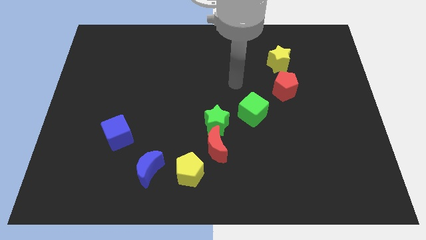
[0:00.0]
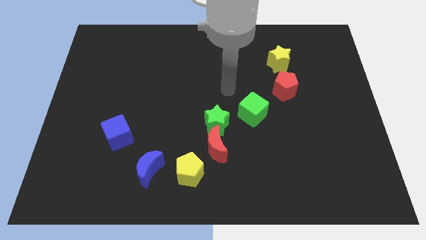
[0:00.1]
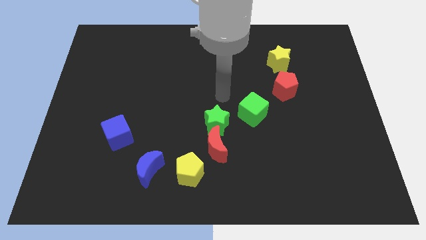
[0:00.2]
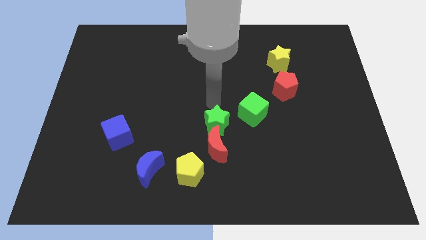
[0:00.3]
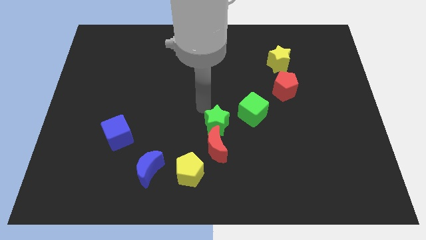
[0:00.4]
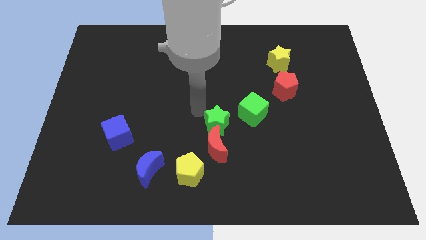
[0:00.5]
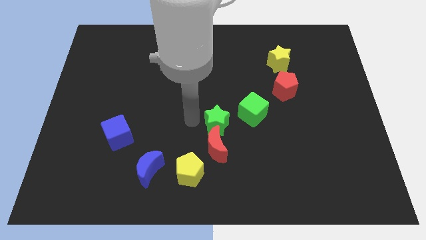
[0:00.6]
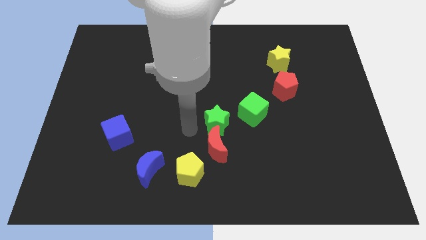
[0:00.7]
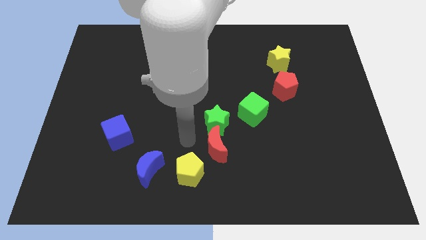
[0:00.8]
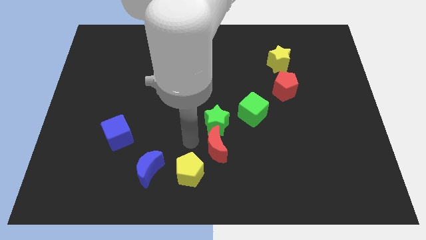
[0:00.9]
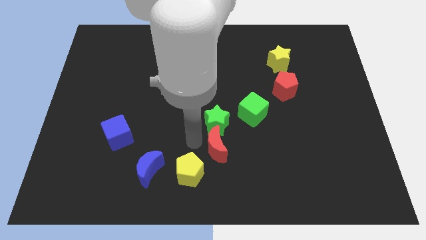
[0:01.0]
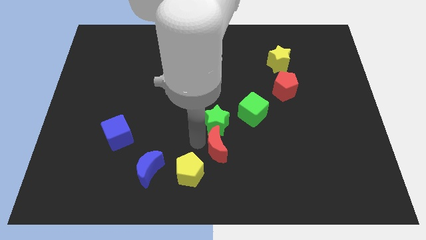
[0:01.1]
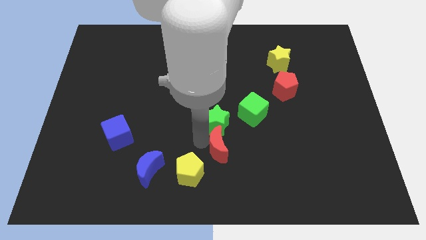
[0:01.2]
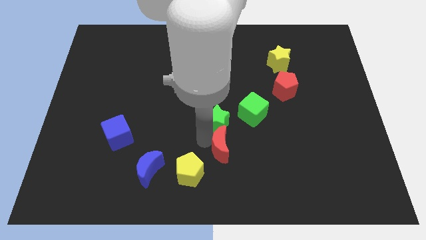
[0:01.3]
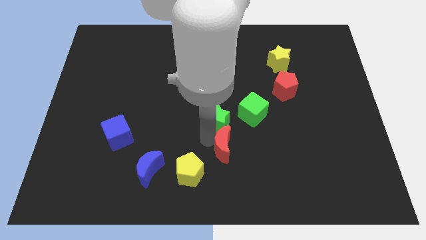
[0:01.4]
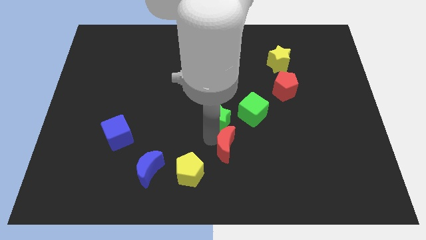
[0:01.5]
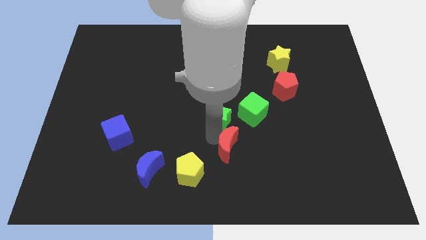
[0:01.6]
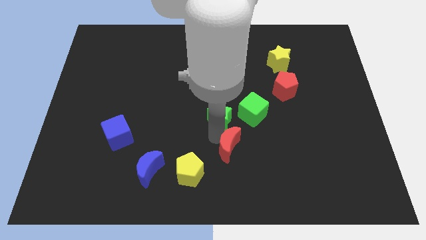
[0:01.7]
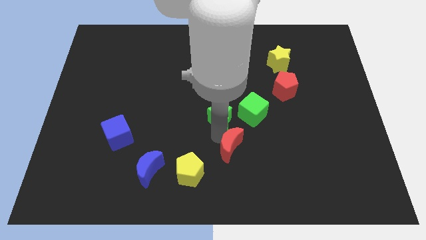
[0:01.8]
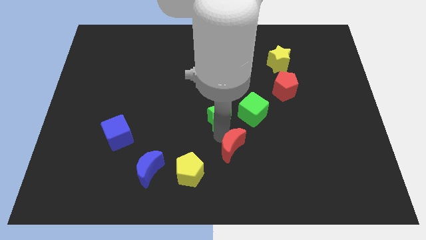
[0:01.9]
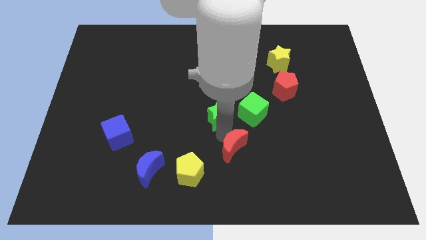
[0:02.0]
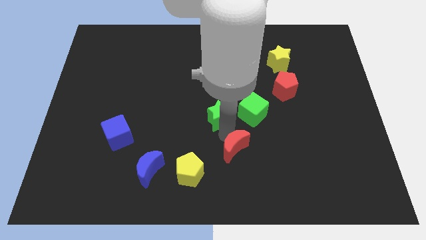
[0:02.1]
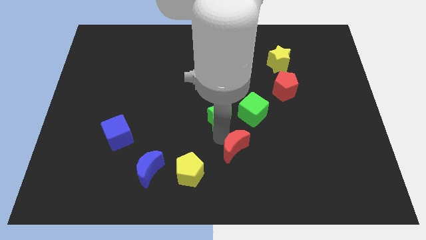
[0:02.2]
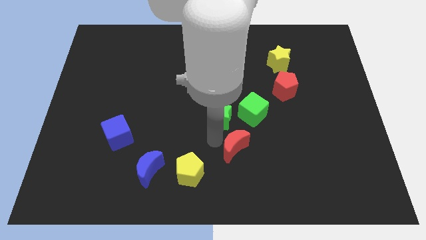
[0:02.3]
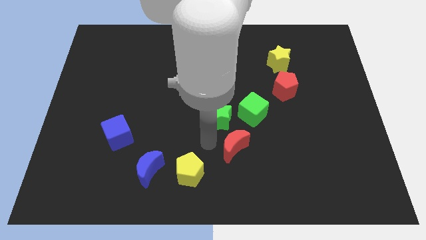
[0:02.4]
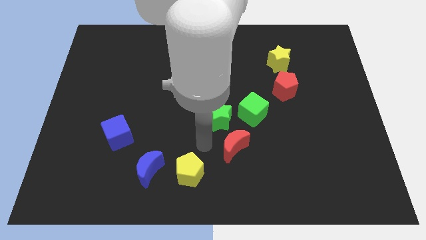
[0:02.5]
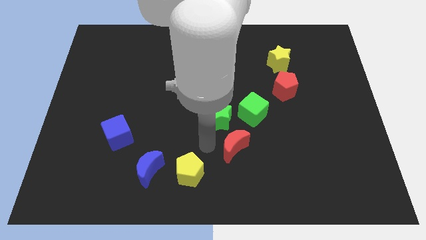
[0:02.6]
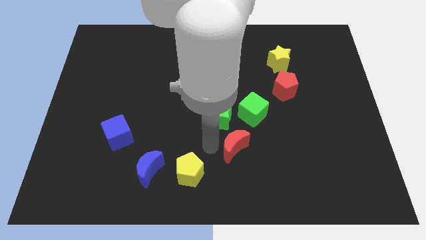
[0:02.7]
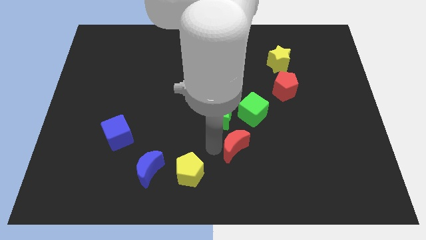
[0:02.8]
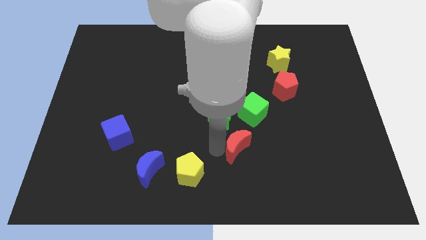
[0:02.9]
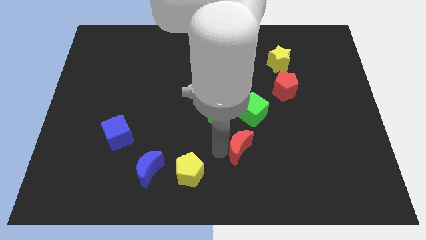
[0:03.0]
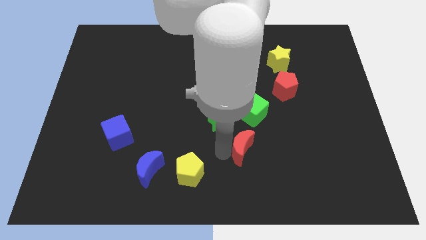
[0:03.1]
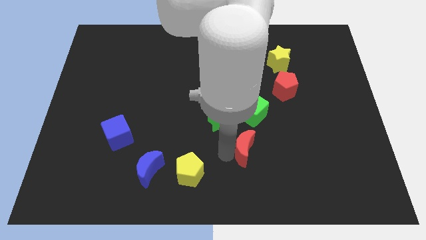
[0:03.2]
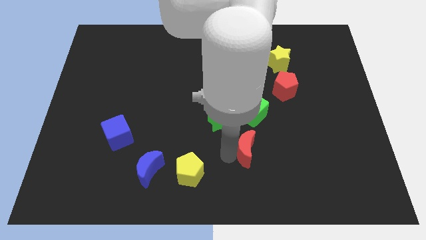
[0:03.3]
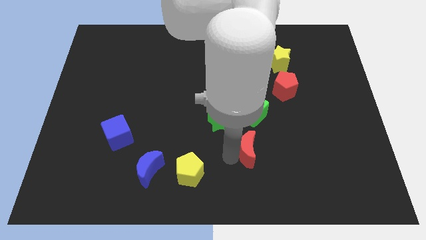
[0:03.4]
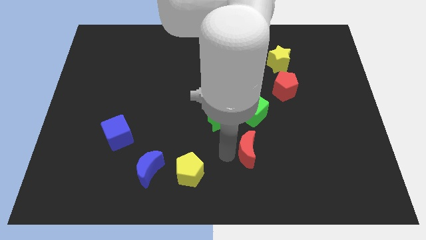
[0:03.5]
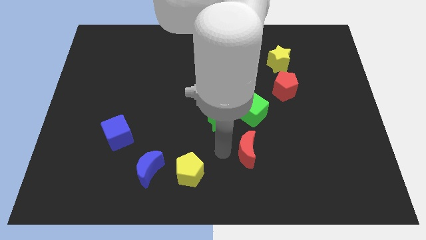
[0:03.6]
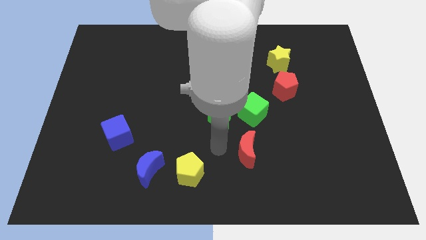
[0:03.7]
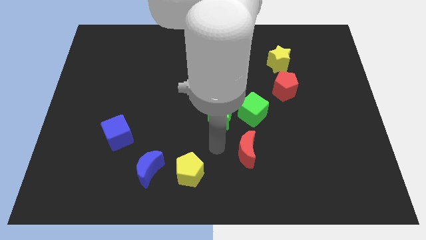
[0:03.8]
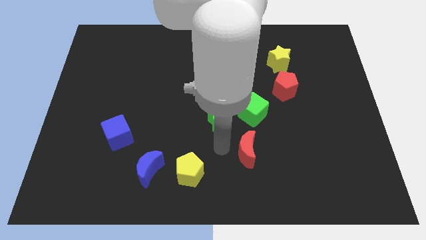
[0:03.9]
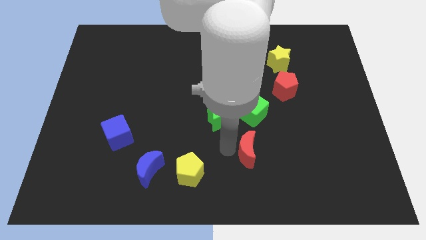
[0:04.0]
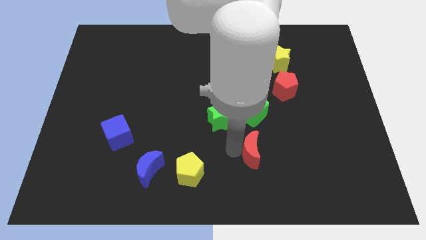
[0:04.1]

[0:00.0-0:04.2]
pull the red moon apart from the green star and yellow pentagon

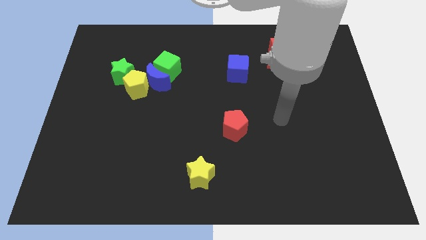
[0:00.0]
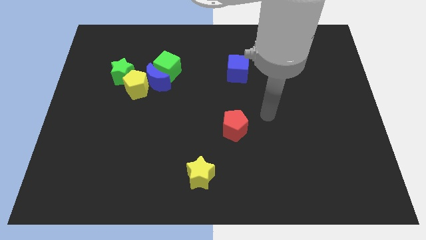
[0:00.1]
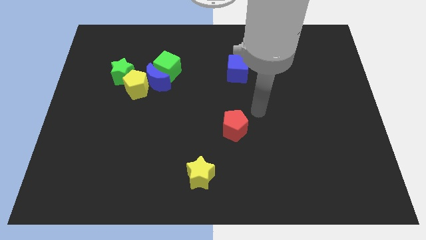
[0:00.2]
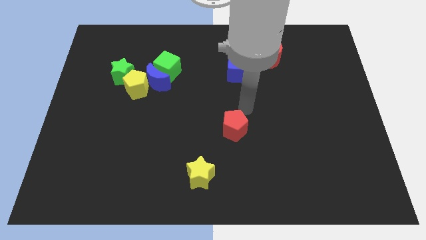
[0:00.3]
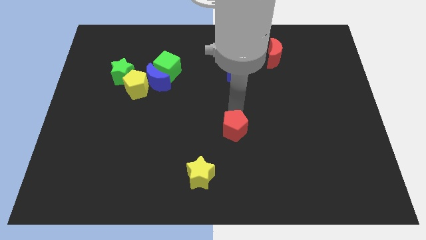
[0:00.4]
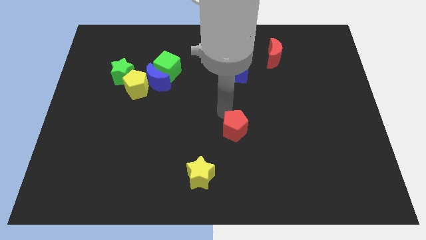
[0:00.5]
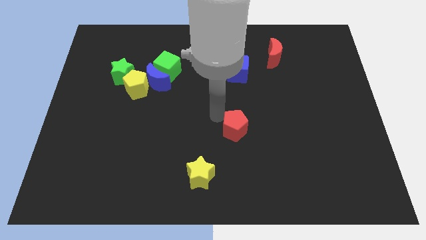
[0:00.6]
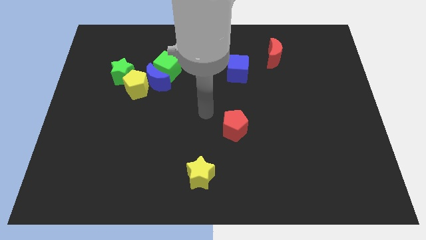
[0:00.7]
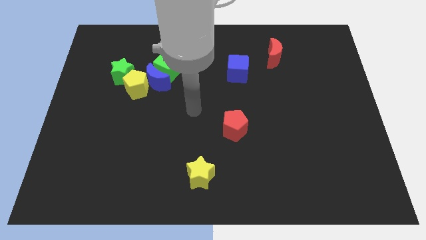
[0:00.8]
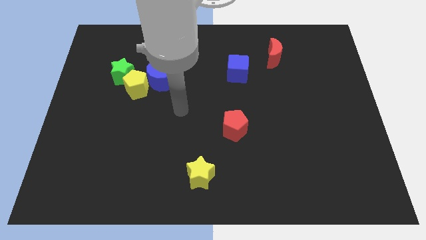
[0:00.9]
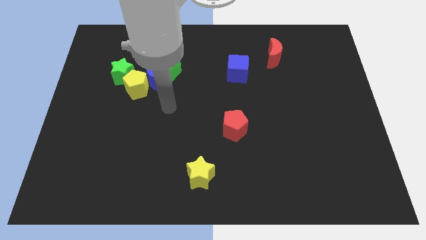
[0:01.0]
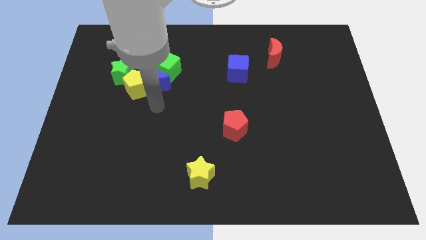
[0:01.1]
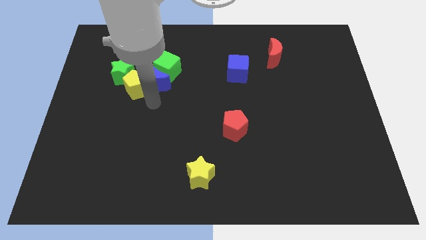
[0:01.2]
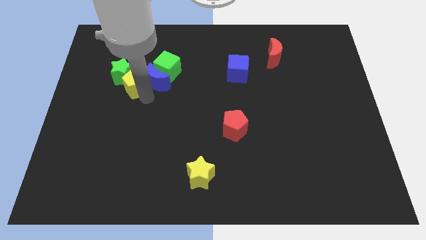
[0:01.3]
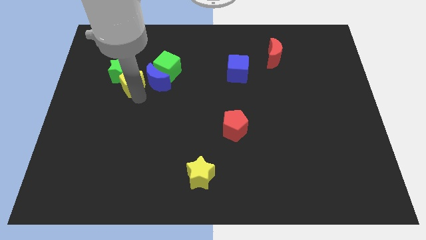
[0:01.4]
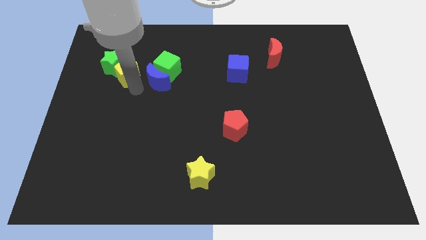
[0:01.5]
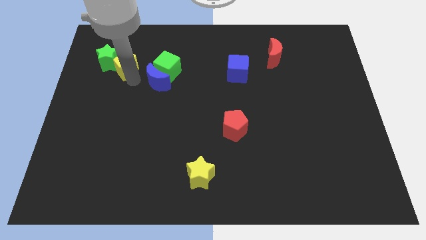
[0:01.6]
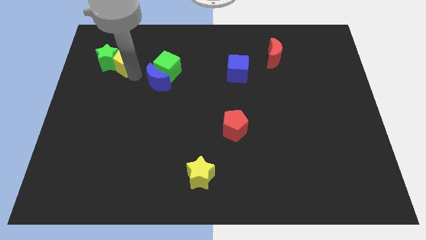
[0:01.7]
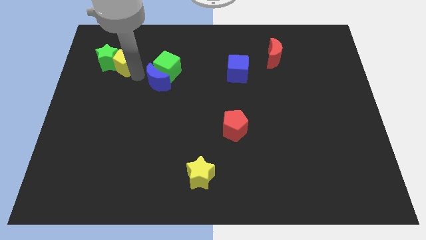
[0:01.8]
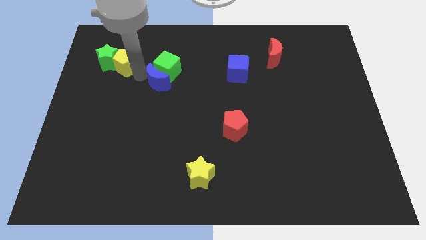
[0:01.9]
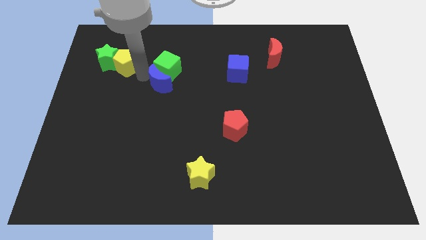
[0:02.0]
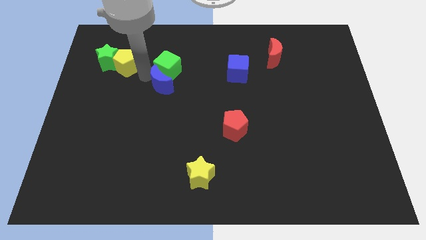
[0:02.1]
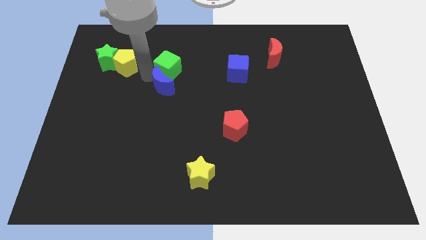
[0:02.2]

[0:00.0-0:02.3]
move the blue moon away from the green cube, yellow pentagon, and green star

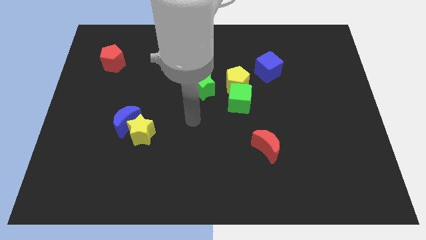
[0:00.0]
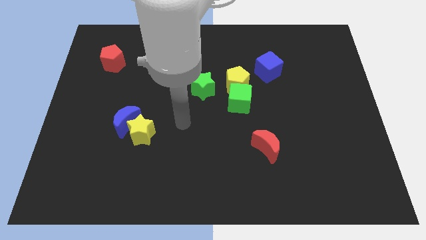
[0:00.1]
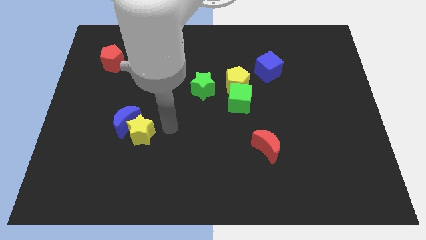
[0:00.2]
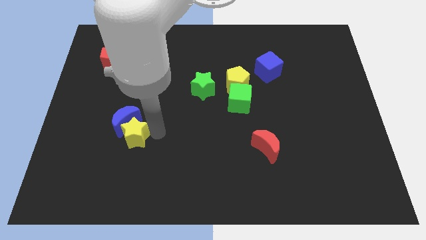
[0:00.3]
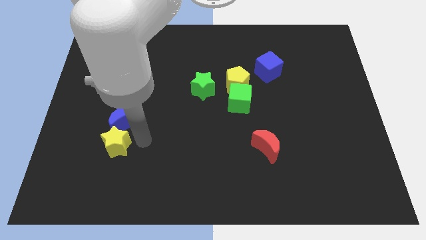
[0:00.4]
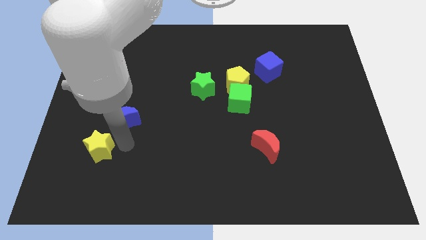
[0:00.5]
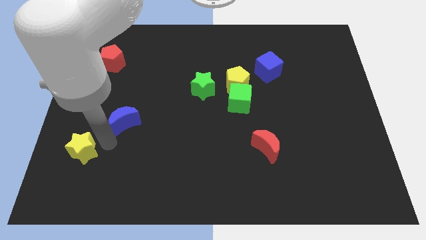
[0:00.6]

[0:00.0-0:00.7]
pull the blue moon apart from the yellow star

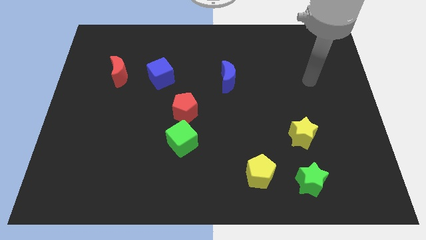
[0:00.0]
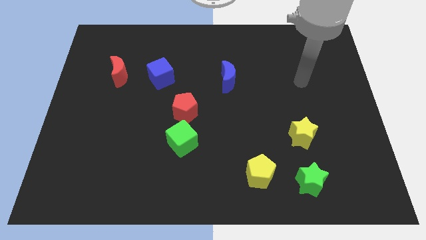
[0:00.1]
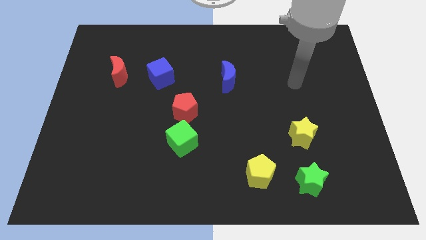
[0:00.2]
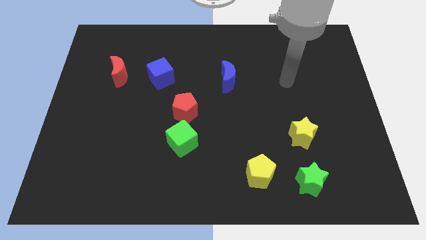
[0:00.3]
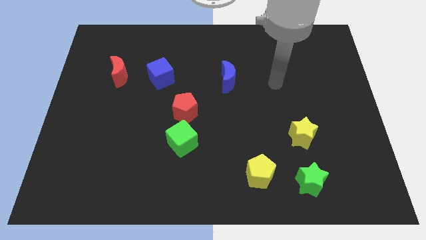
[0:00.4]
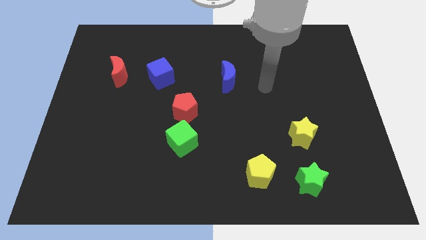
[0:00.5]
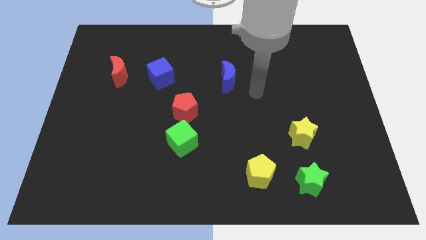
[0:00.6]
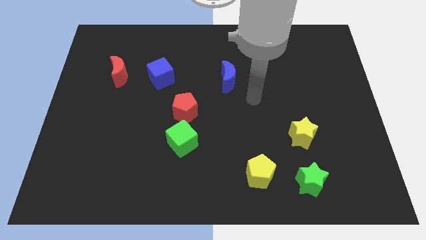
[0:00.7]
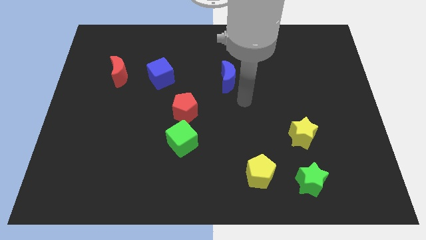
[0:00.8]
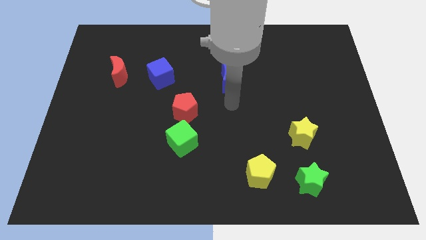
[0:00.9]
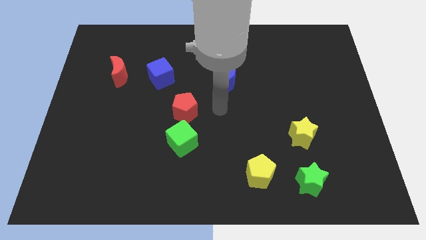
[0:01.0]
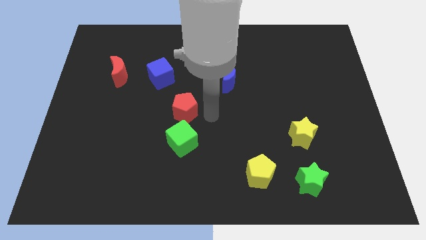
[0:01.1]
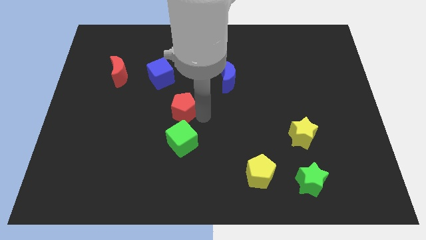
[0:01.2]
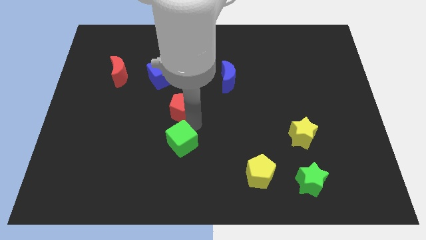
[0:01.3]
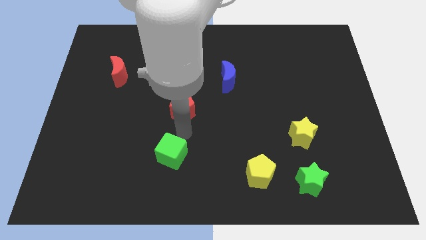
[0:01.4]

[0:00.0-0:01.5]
pull the red pentagon apart from the green cube

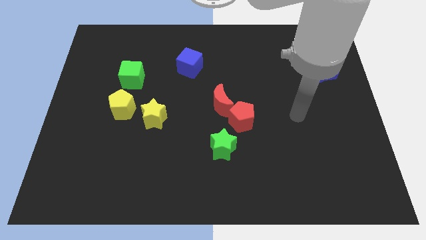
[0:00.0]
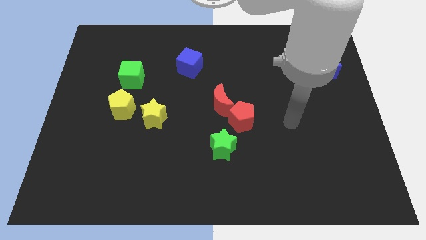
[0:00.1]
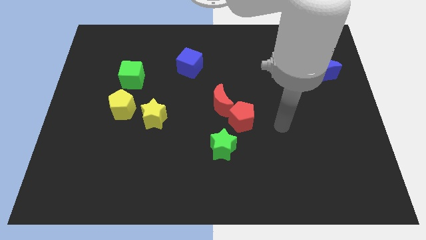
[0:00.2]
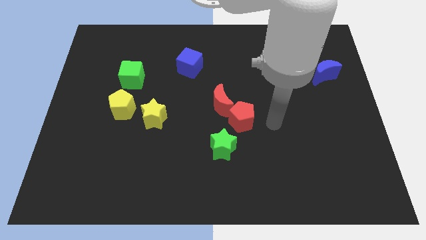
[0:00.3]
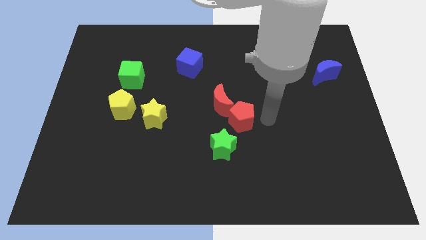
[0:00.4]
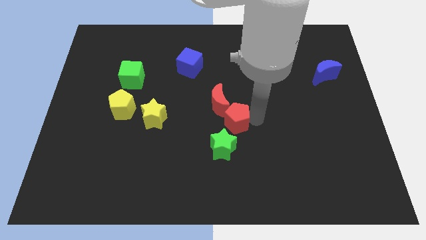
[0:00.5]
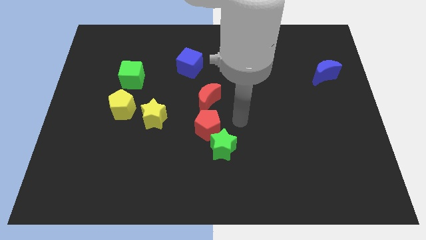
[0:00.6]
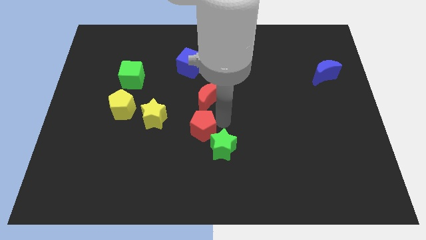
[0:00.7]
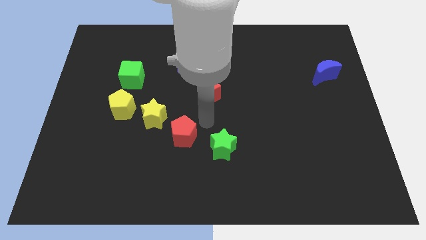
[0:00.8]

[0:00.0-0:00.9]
separate the red moon from the red pentagon
